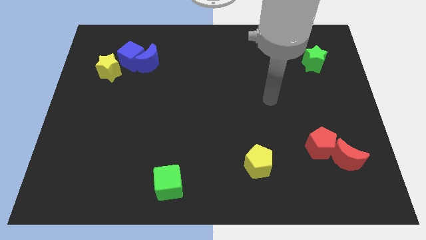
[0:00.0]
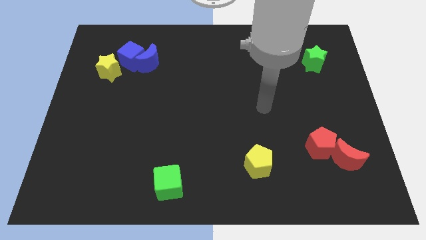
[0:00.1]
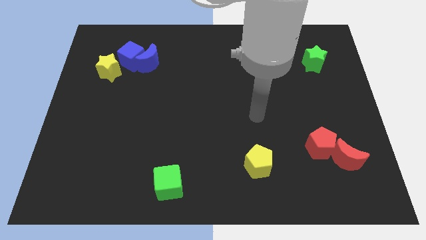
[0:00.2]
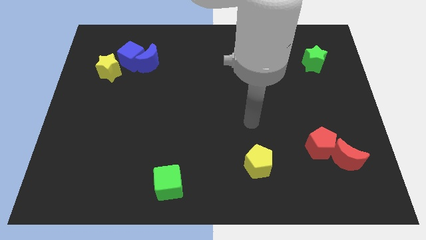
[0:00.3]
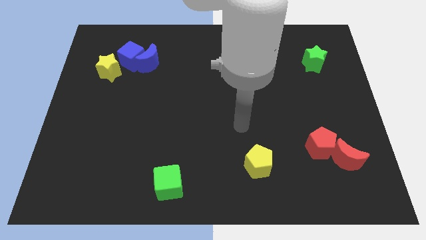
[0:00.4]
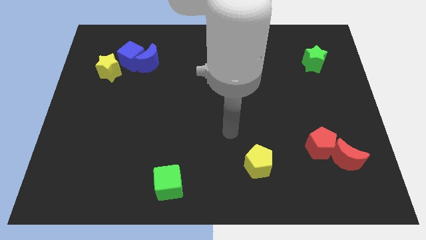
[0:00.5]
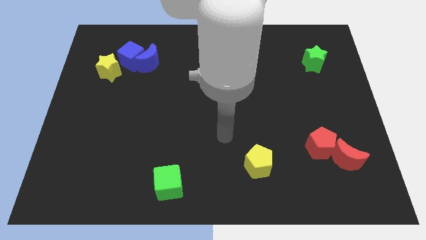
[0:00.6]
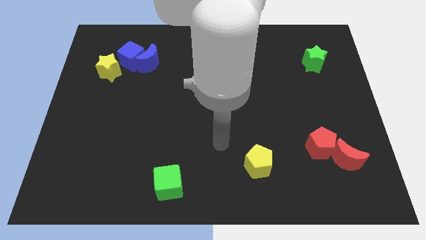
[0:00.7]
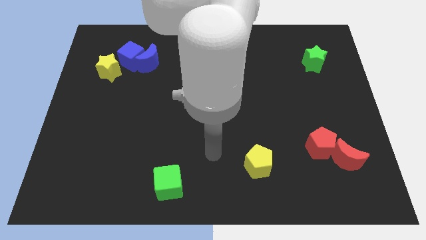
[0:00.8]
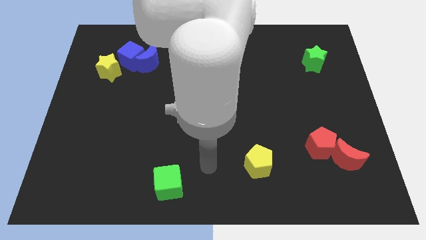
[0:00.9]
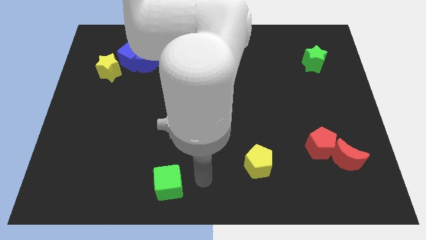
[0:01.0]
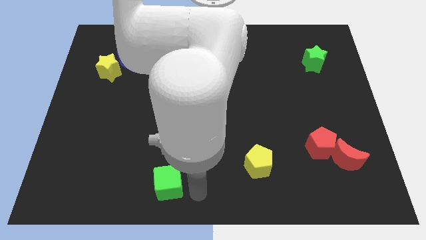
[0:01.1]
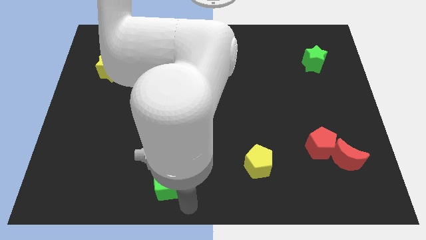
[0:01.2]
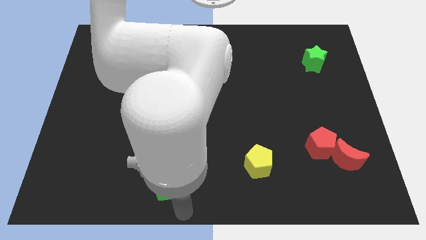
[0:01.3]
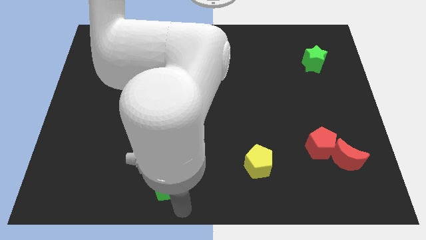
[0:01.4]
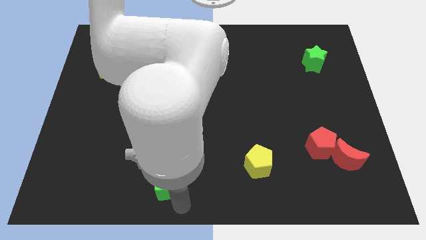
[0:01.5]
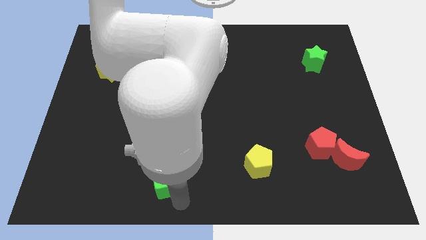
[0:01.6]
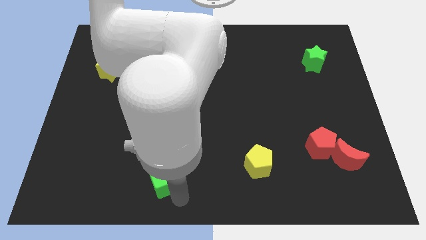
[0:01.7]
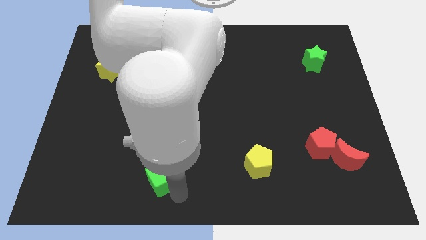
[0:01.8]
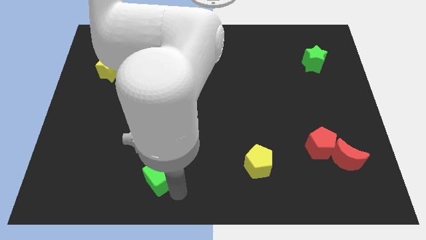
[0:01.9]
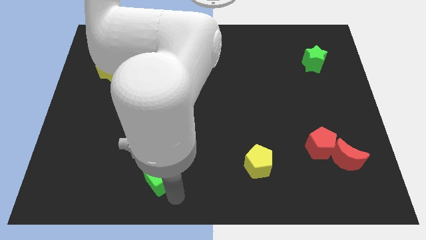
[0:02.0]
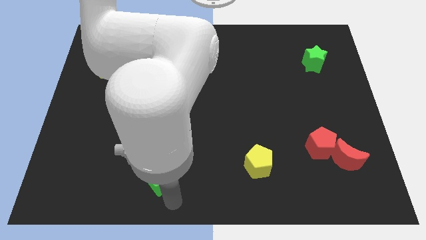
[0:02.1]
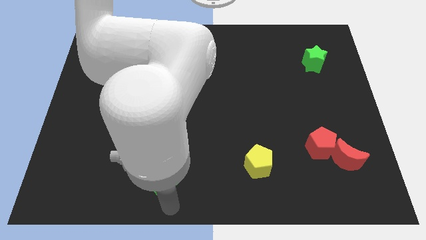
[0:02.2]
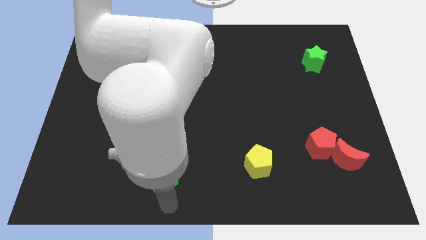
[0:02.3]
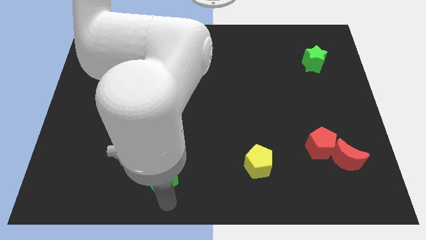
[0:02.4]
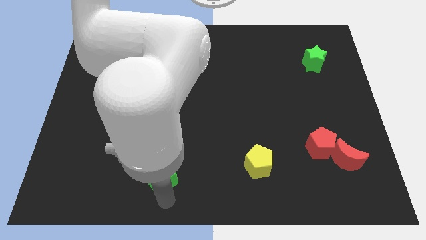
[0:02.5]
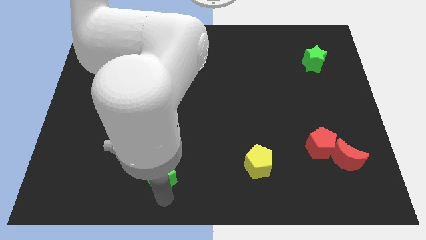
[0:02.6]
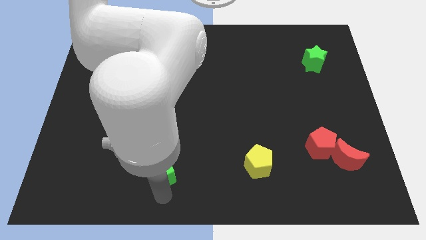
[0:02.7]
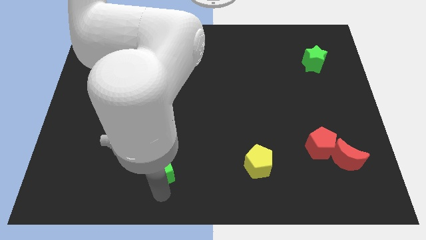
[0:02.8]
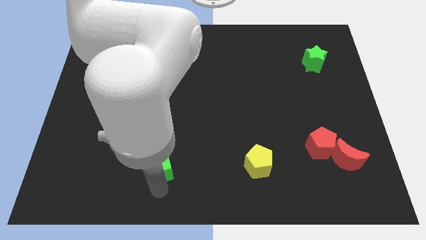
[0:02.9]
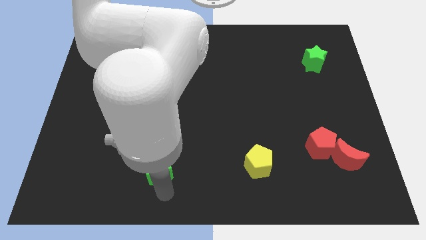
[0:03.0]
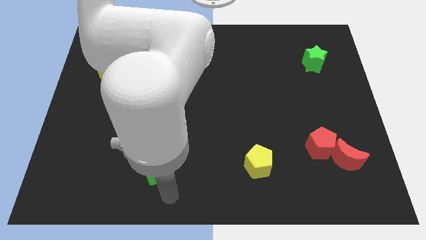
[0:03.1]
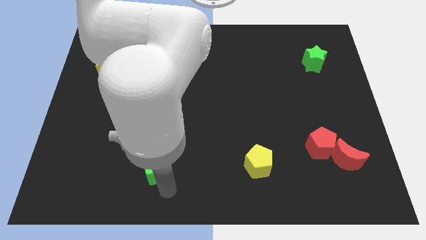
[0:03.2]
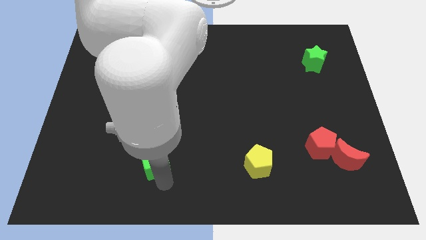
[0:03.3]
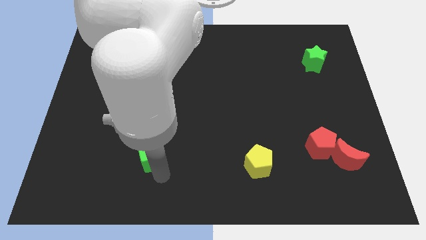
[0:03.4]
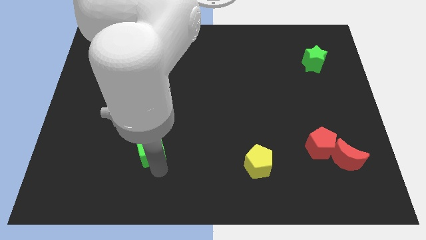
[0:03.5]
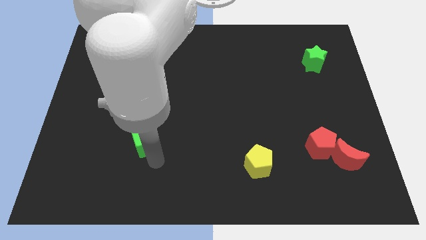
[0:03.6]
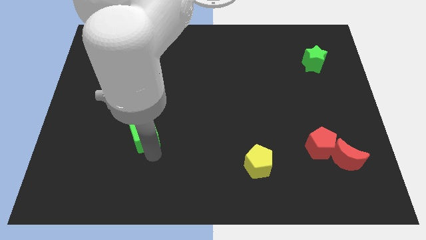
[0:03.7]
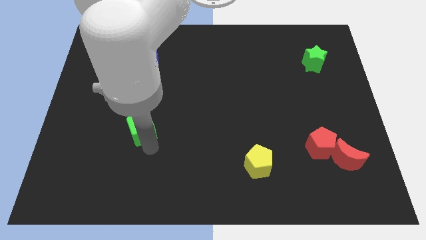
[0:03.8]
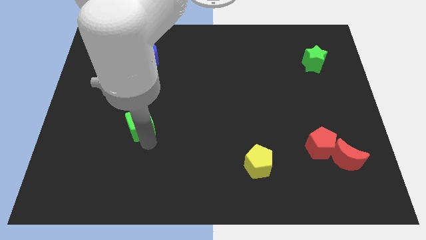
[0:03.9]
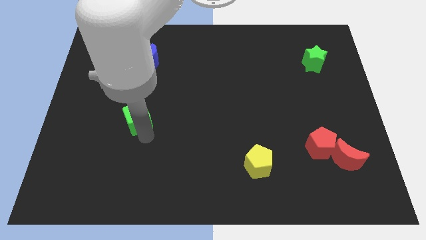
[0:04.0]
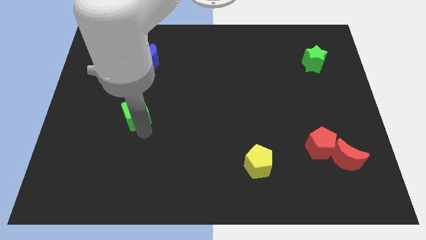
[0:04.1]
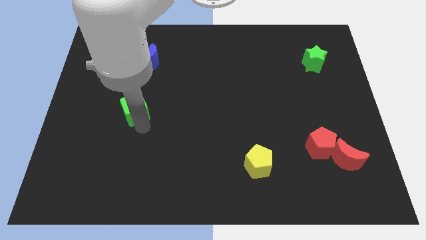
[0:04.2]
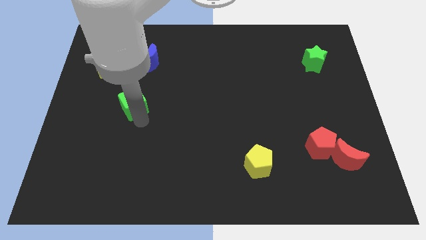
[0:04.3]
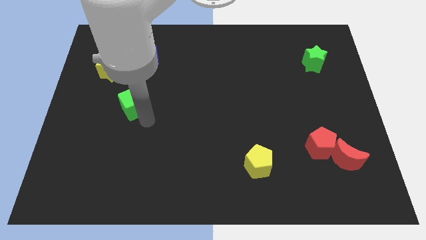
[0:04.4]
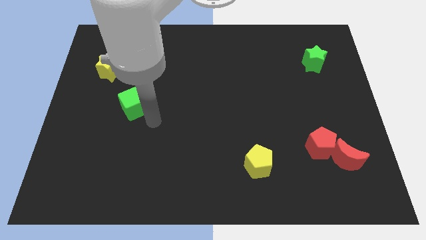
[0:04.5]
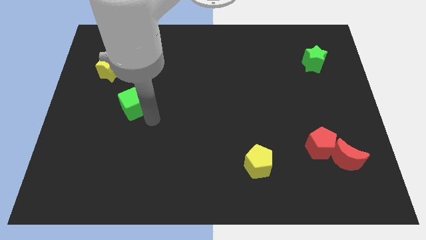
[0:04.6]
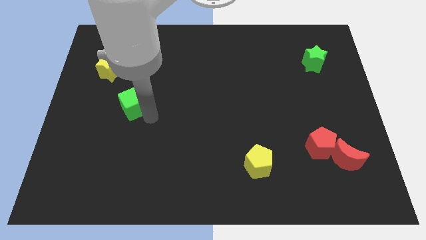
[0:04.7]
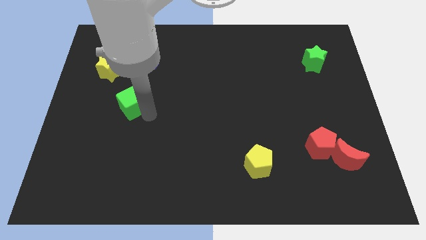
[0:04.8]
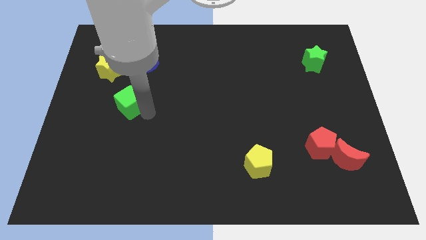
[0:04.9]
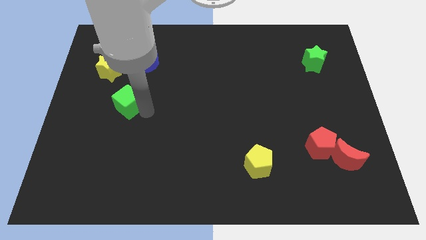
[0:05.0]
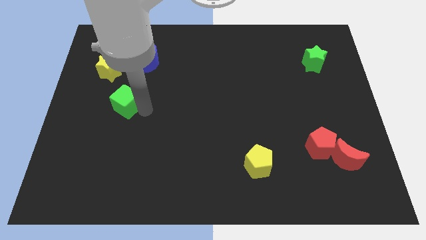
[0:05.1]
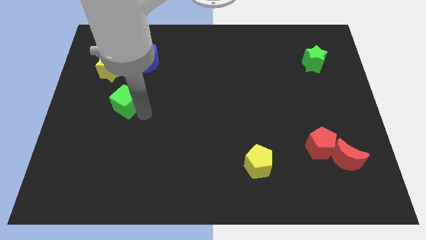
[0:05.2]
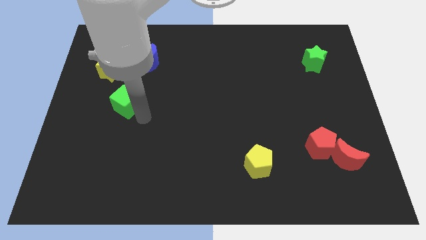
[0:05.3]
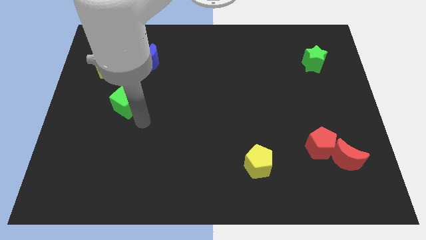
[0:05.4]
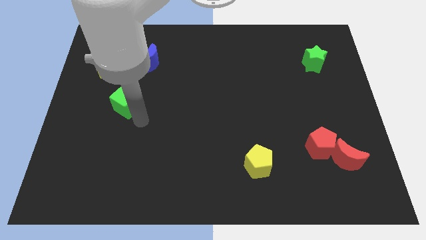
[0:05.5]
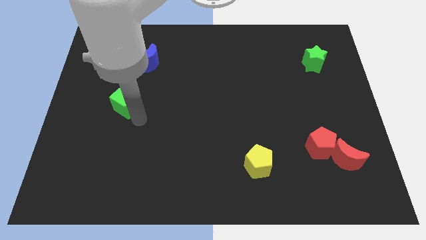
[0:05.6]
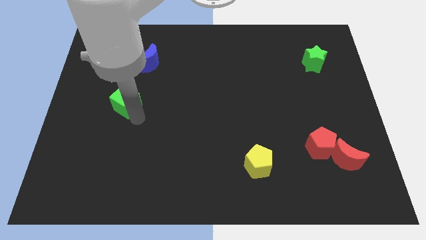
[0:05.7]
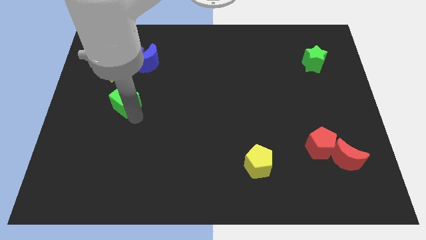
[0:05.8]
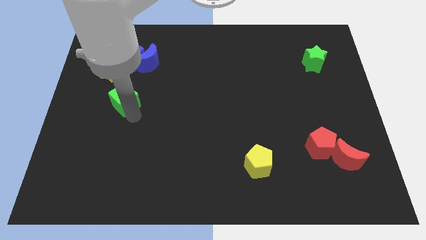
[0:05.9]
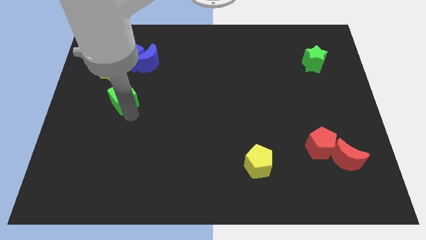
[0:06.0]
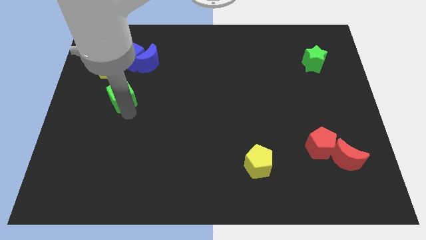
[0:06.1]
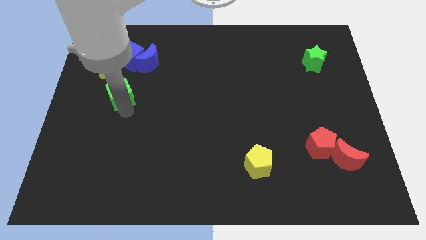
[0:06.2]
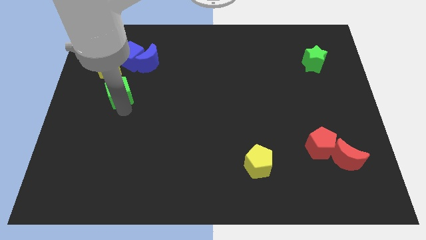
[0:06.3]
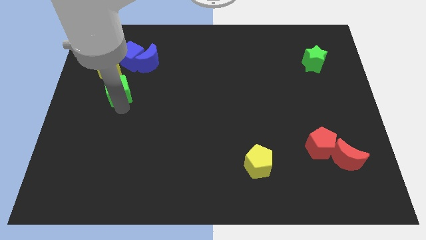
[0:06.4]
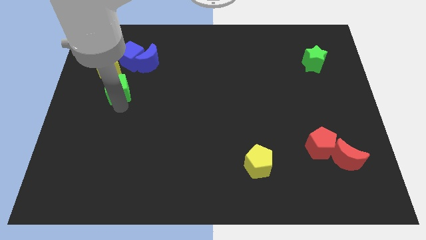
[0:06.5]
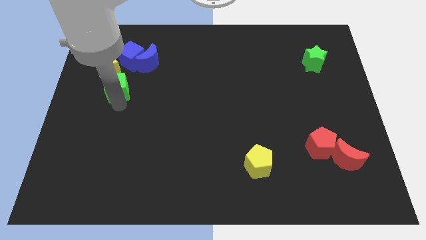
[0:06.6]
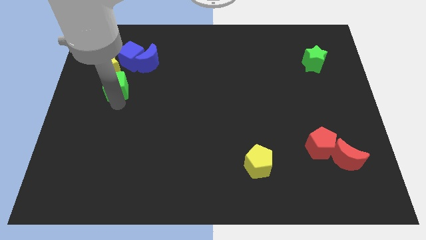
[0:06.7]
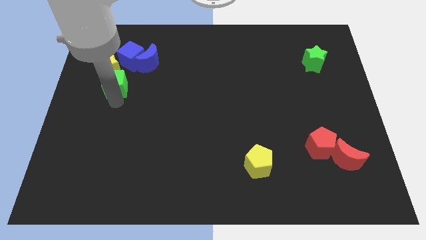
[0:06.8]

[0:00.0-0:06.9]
move the green cube towards the yellow star

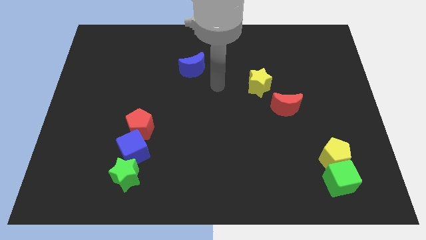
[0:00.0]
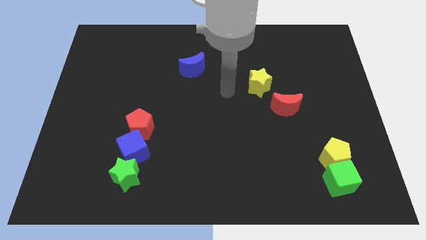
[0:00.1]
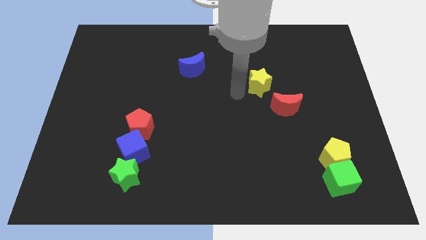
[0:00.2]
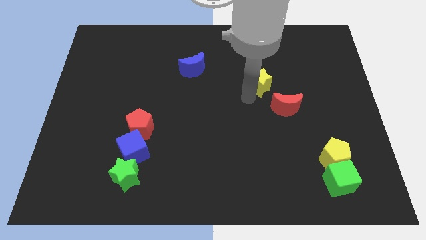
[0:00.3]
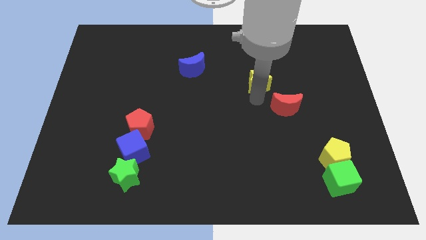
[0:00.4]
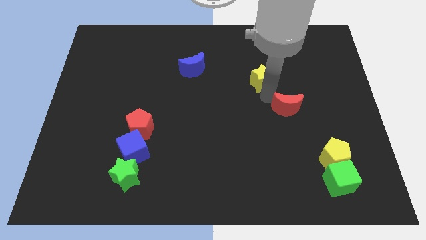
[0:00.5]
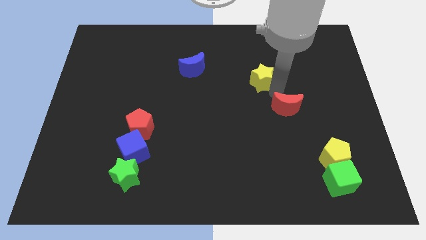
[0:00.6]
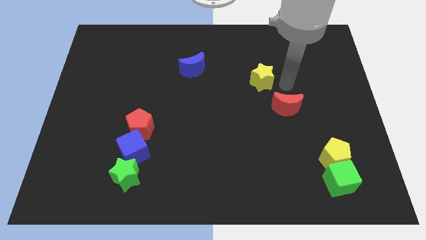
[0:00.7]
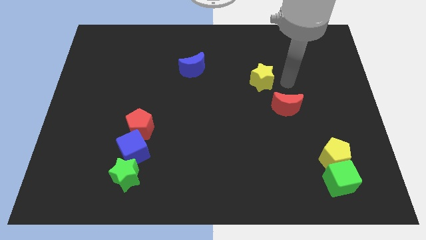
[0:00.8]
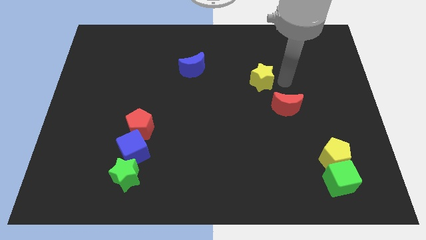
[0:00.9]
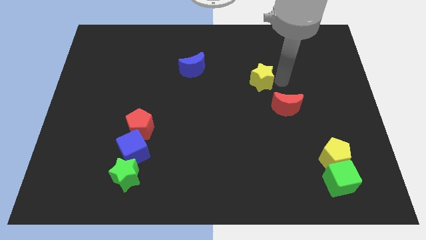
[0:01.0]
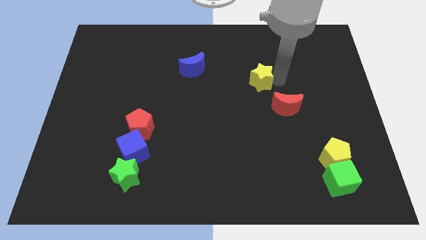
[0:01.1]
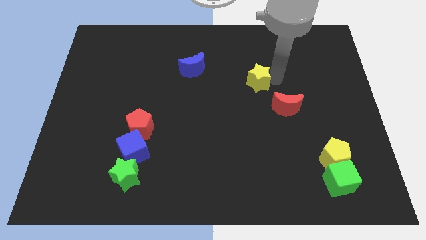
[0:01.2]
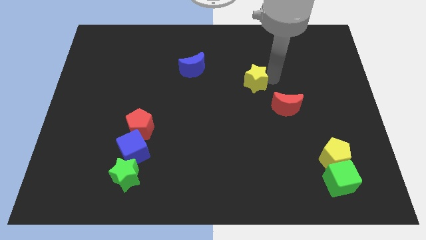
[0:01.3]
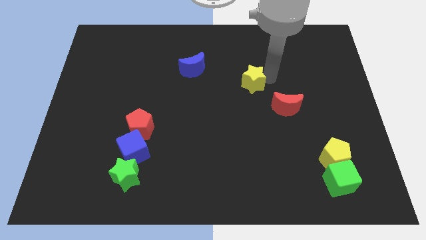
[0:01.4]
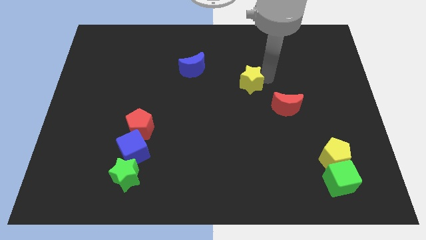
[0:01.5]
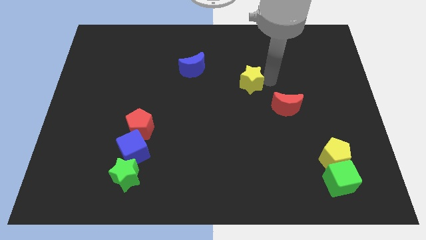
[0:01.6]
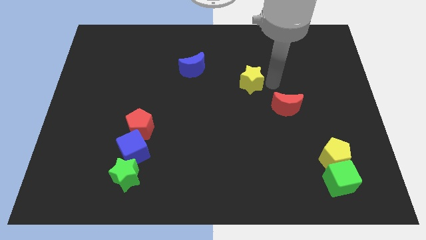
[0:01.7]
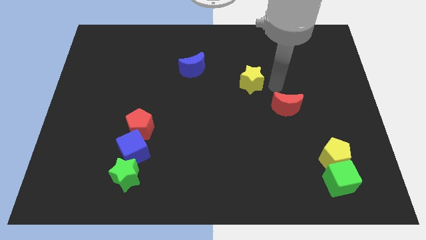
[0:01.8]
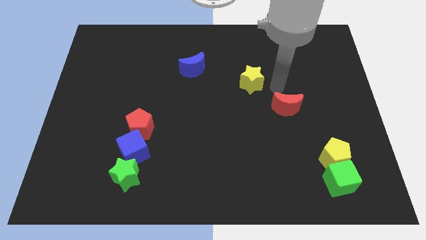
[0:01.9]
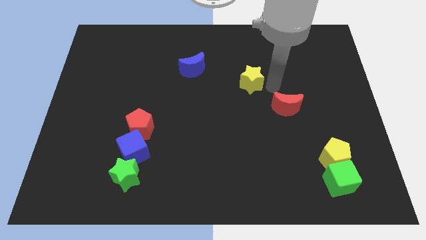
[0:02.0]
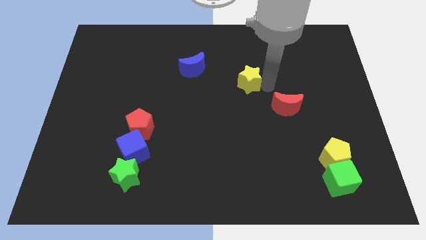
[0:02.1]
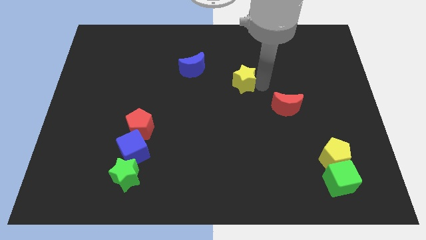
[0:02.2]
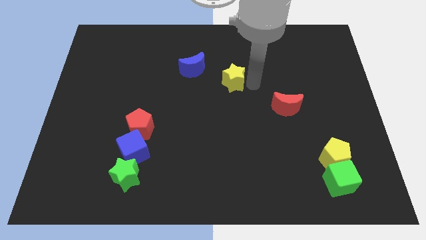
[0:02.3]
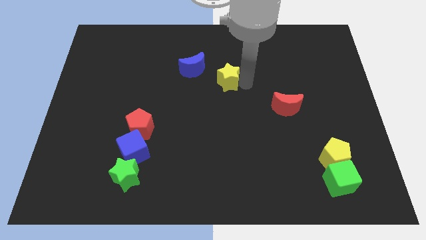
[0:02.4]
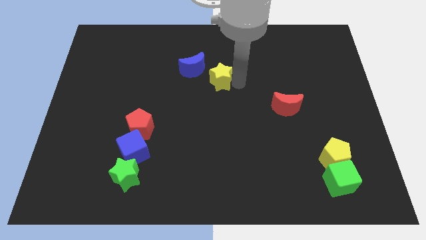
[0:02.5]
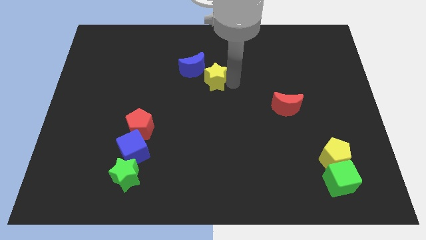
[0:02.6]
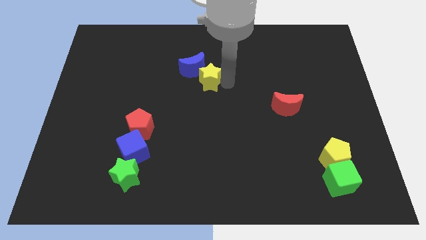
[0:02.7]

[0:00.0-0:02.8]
move the yellow star towards the blue moon
